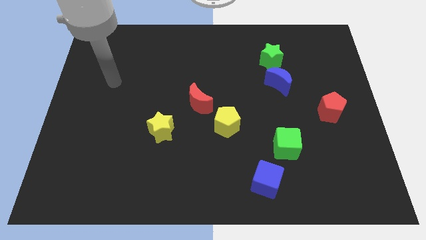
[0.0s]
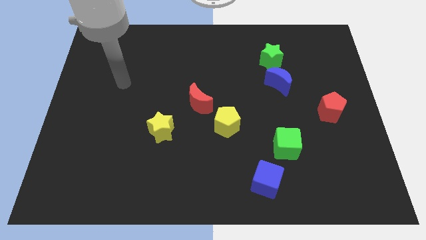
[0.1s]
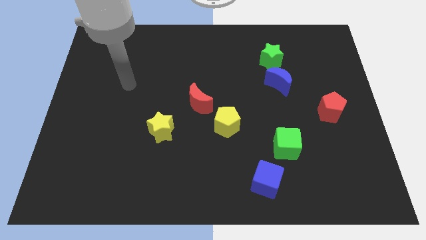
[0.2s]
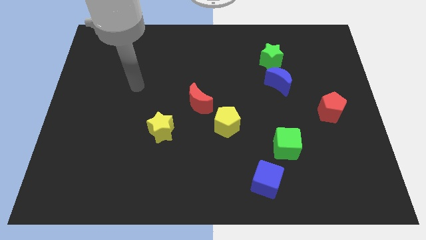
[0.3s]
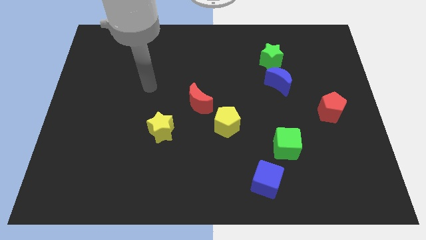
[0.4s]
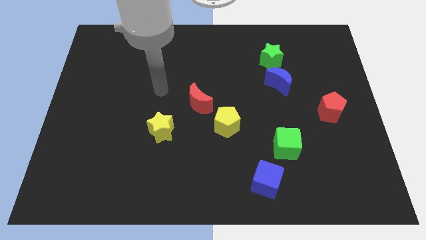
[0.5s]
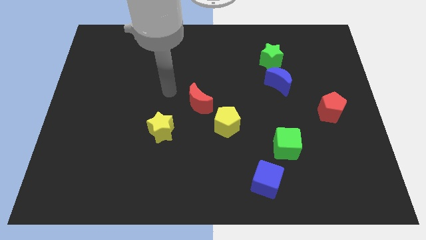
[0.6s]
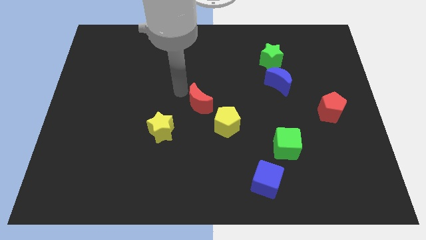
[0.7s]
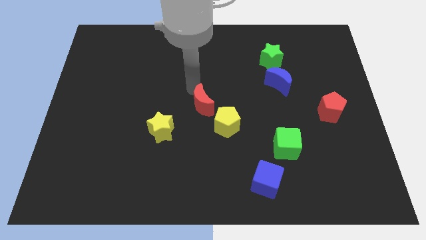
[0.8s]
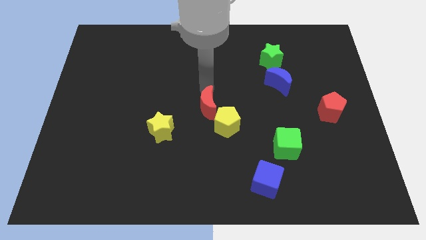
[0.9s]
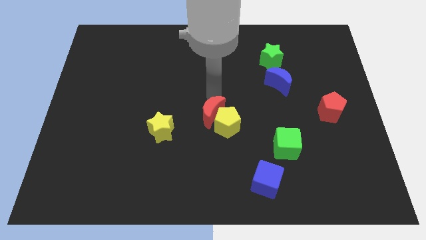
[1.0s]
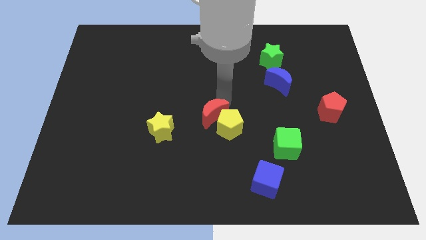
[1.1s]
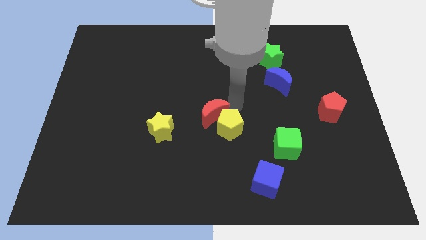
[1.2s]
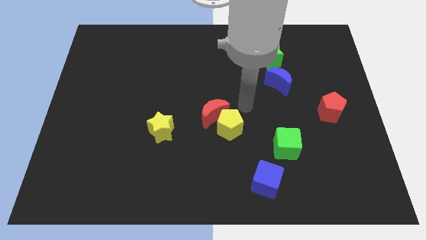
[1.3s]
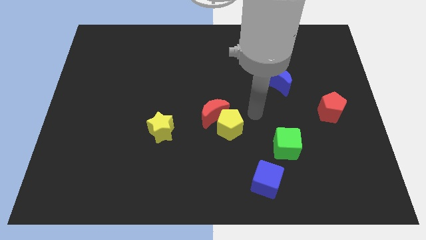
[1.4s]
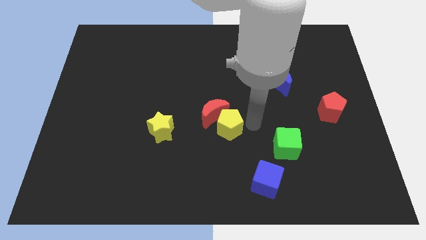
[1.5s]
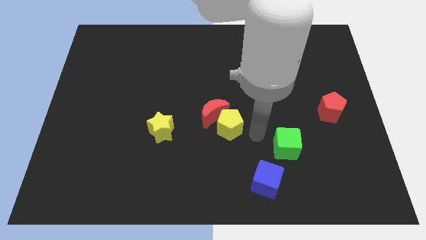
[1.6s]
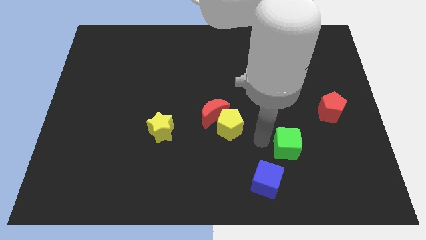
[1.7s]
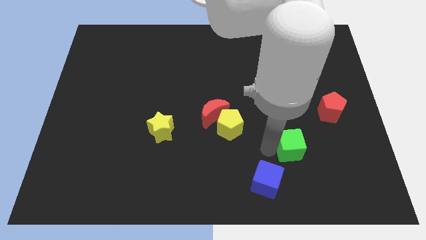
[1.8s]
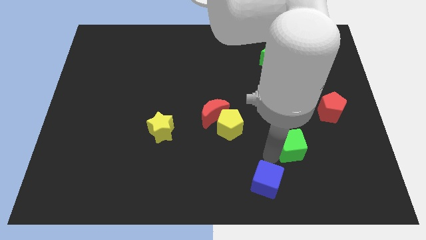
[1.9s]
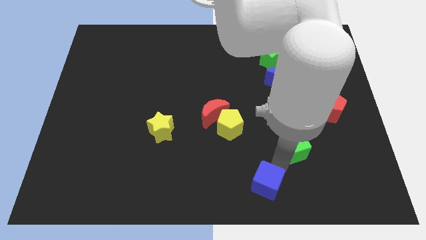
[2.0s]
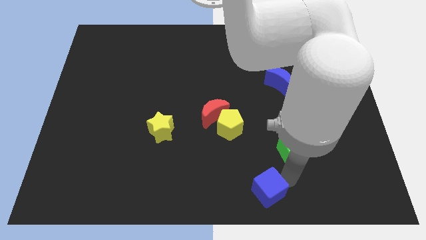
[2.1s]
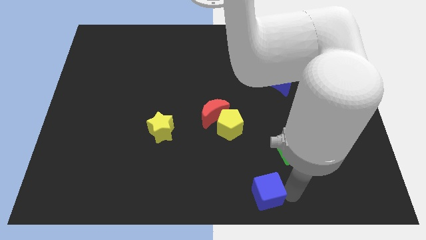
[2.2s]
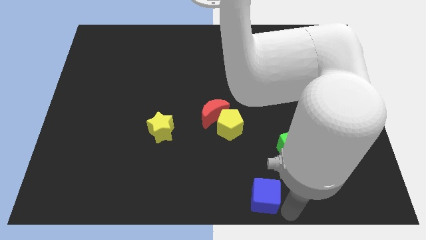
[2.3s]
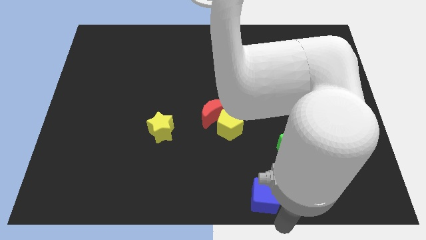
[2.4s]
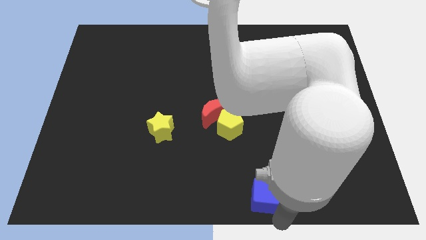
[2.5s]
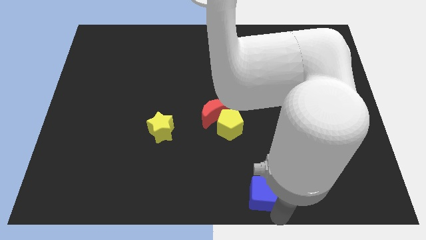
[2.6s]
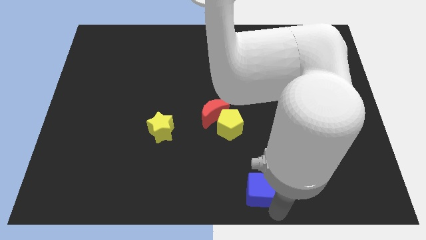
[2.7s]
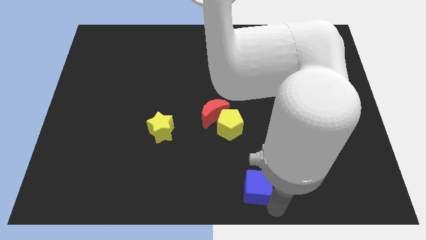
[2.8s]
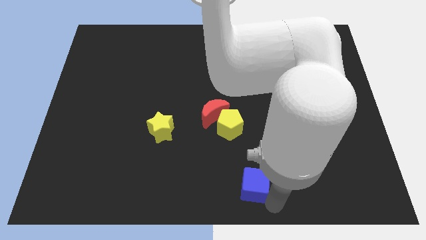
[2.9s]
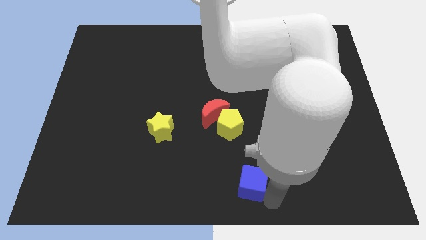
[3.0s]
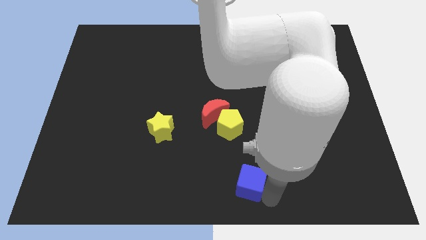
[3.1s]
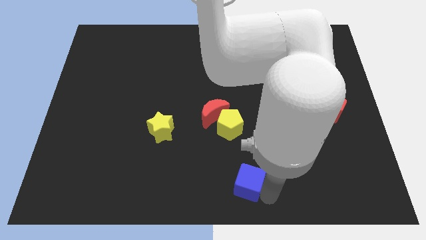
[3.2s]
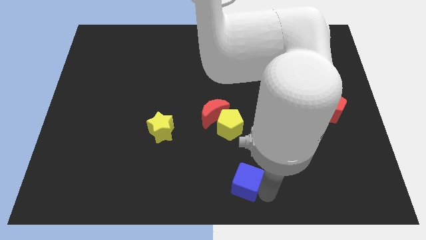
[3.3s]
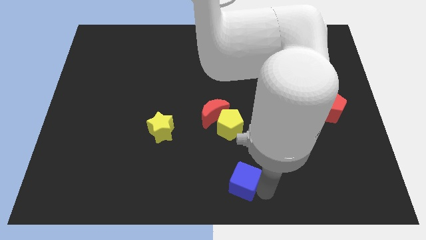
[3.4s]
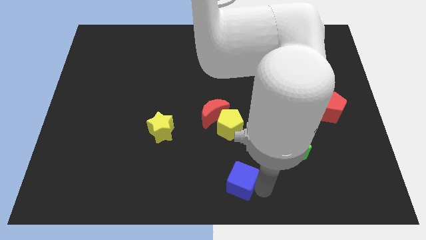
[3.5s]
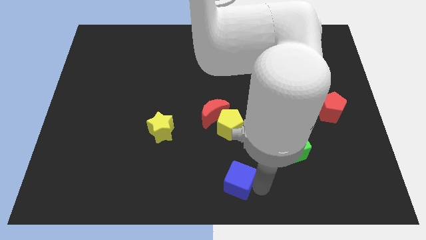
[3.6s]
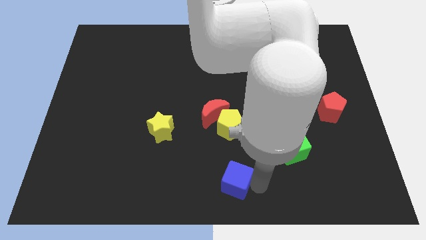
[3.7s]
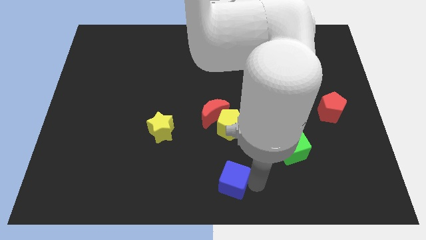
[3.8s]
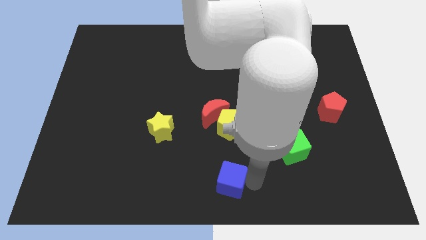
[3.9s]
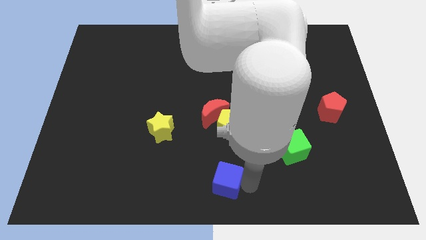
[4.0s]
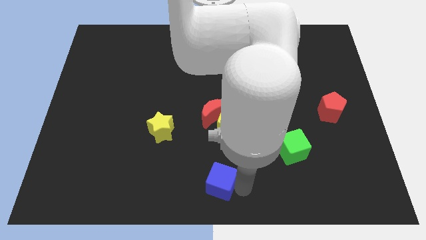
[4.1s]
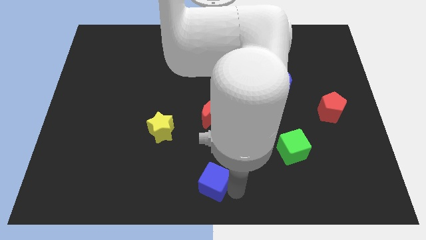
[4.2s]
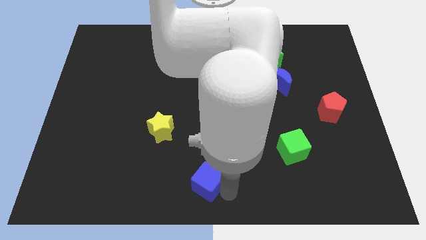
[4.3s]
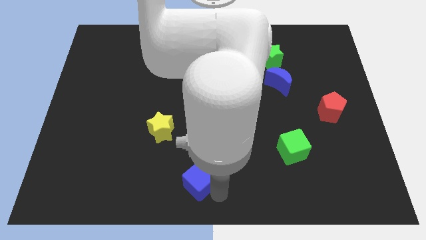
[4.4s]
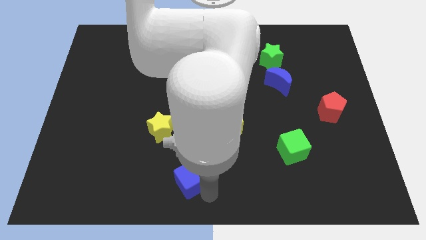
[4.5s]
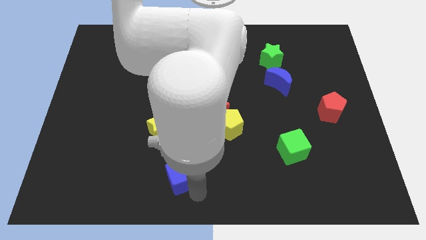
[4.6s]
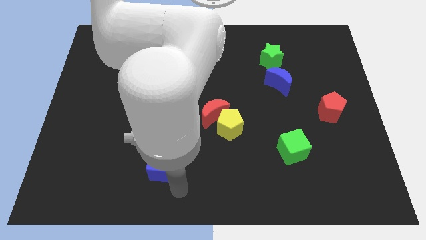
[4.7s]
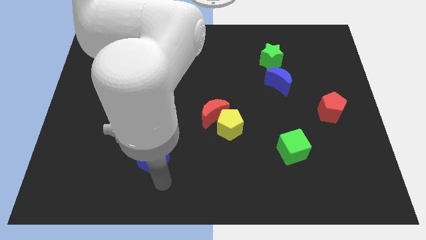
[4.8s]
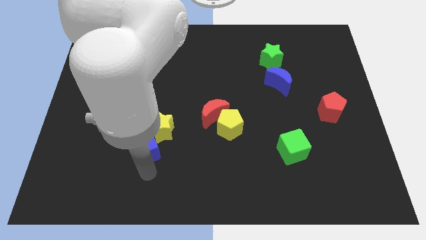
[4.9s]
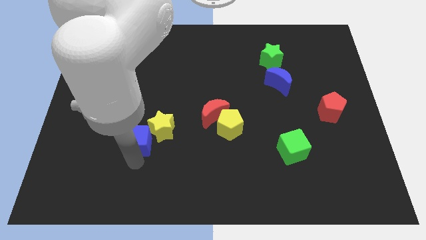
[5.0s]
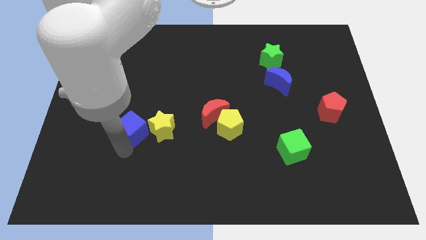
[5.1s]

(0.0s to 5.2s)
move the blue cube up and to the left

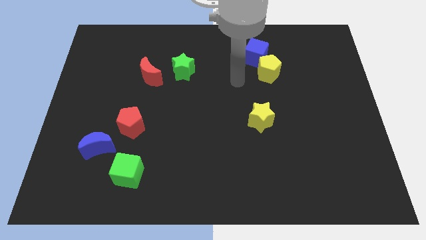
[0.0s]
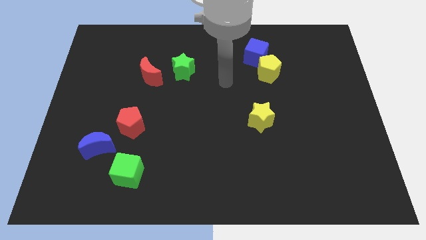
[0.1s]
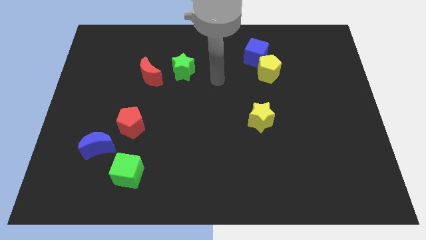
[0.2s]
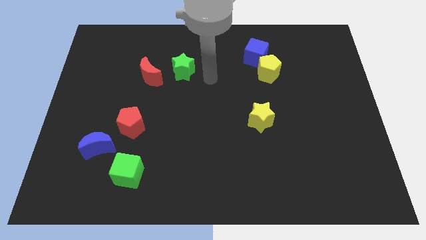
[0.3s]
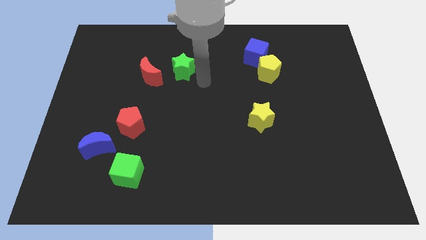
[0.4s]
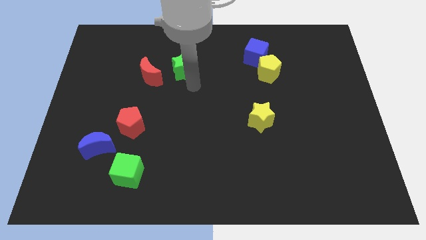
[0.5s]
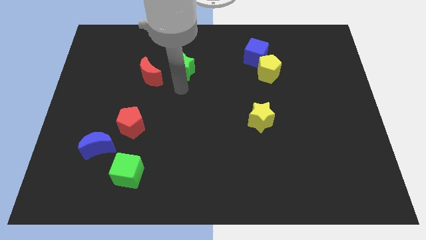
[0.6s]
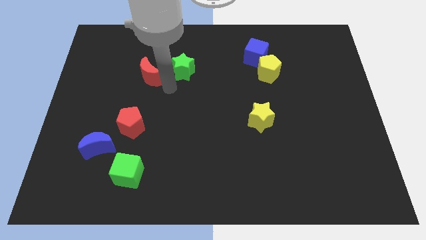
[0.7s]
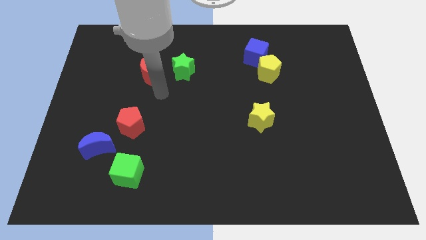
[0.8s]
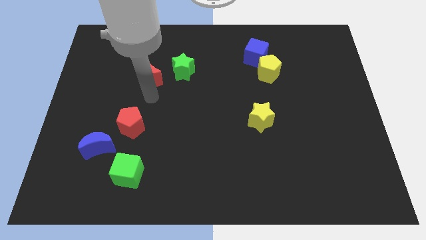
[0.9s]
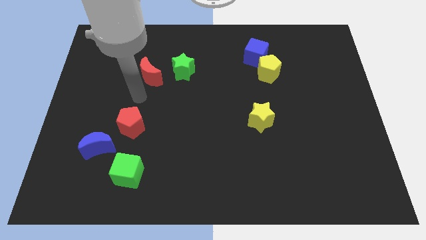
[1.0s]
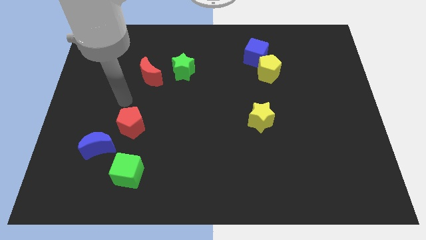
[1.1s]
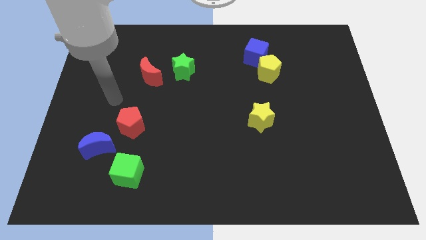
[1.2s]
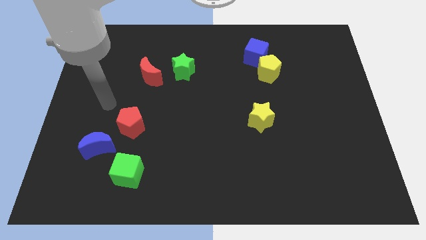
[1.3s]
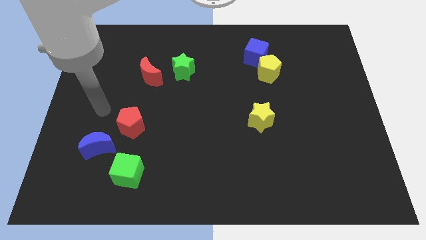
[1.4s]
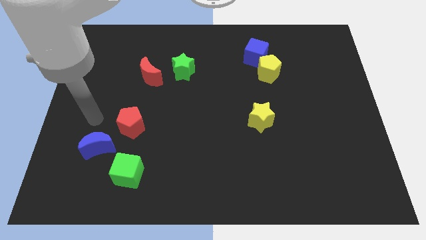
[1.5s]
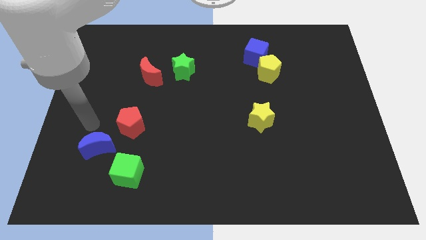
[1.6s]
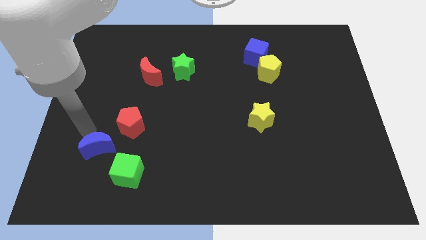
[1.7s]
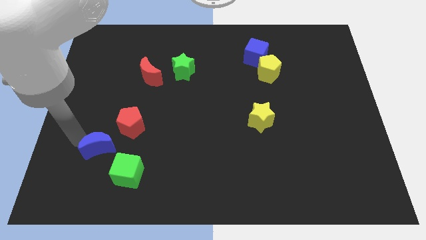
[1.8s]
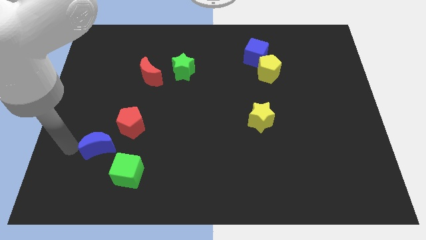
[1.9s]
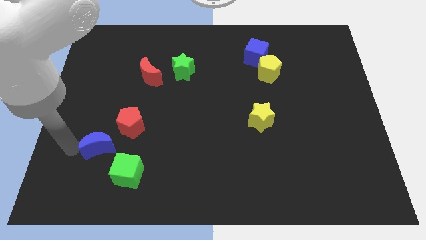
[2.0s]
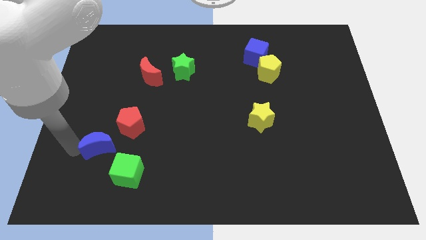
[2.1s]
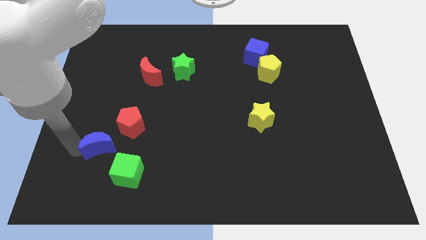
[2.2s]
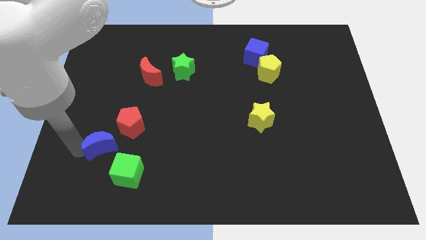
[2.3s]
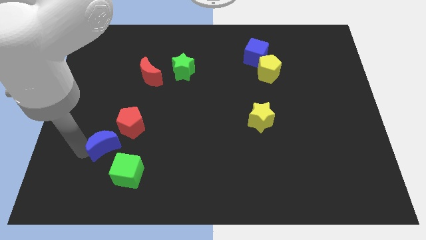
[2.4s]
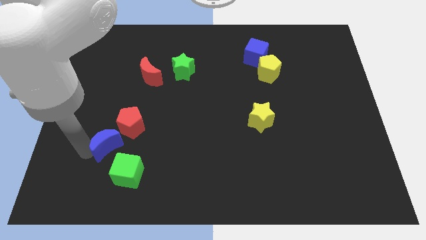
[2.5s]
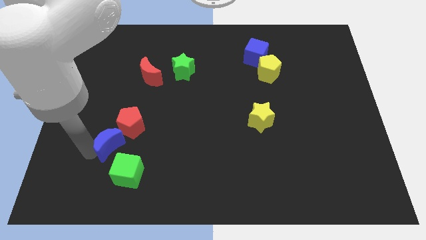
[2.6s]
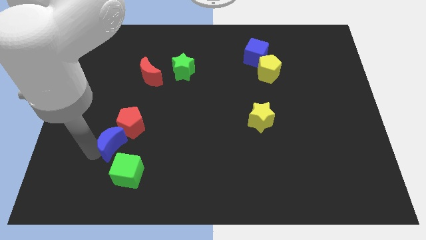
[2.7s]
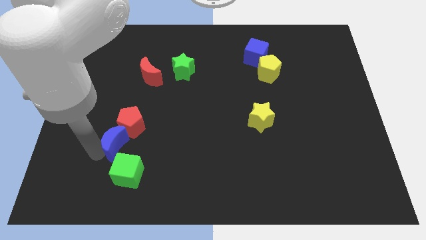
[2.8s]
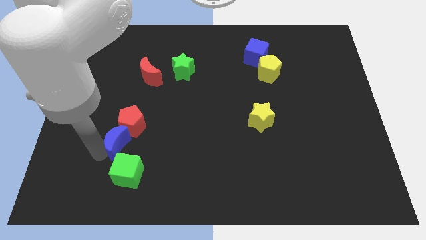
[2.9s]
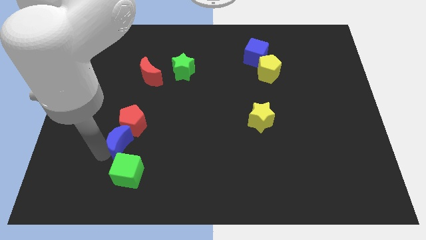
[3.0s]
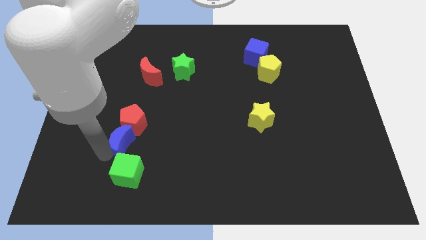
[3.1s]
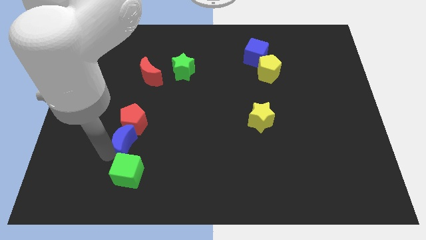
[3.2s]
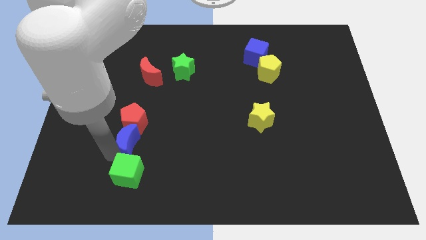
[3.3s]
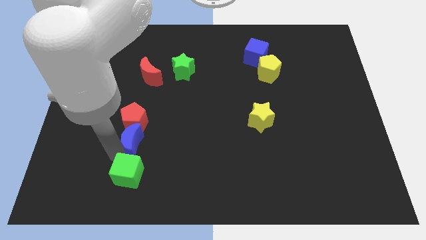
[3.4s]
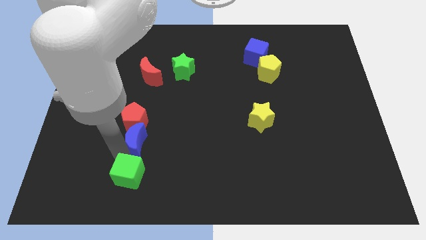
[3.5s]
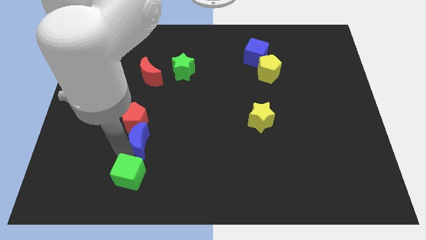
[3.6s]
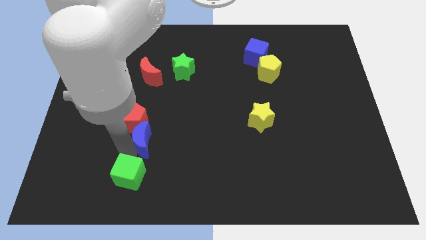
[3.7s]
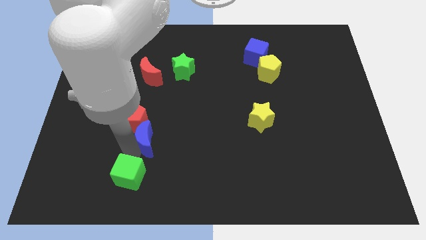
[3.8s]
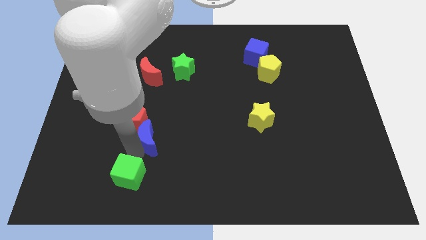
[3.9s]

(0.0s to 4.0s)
slide the blue moon up and right diagonally a bit
